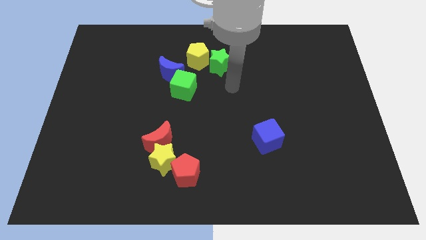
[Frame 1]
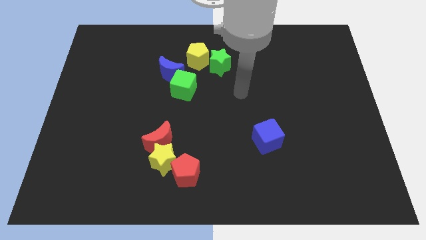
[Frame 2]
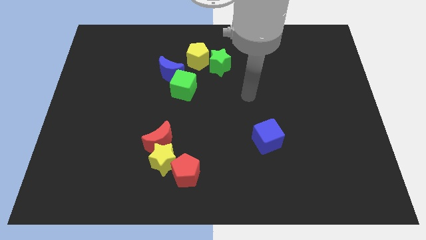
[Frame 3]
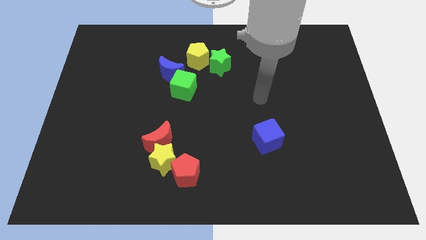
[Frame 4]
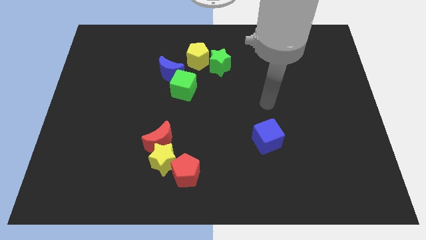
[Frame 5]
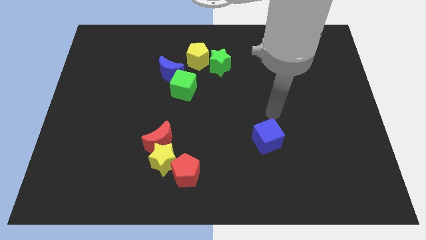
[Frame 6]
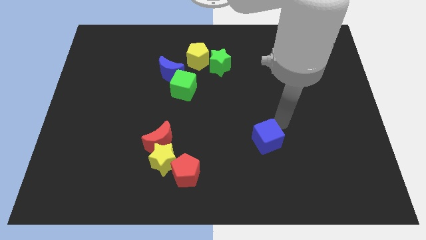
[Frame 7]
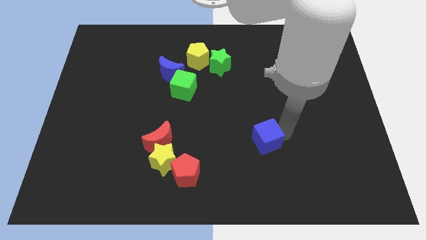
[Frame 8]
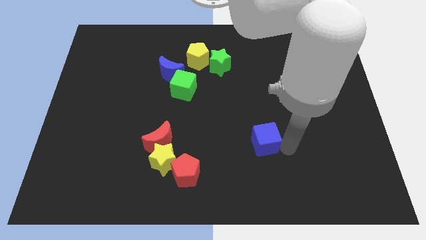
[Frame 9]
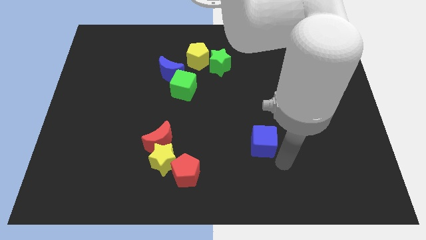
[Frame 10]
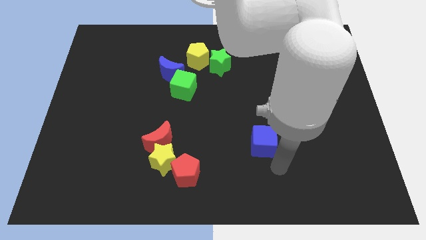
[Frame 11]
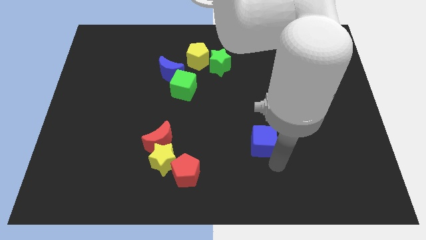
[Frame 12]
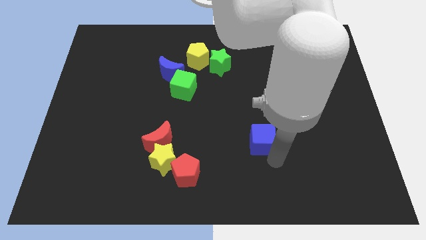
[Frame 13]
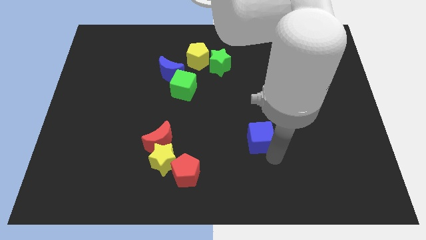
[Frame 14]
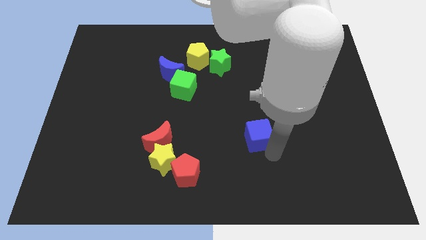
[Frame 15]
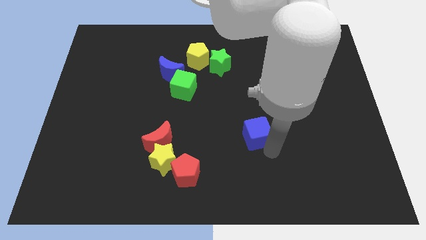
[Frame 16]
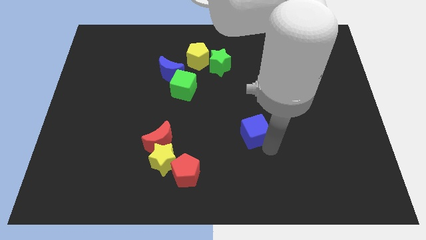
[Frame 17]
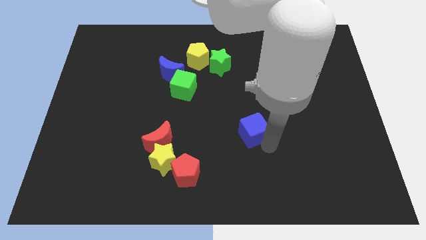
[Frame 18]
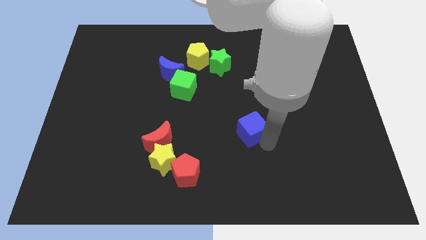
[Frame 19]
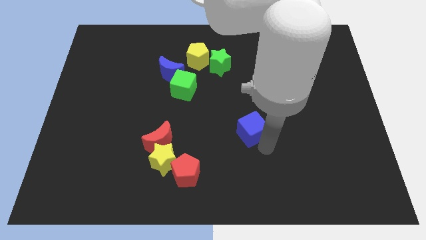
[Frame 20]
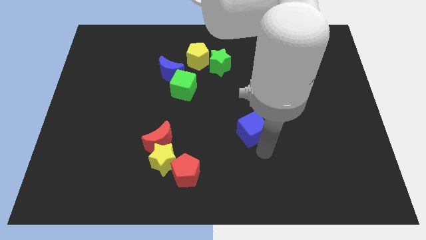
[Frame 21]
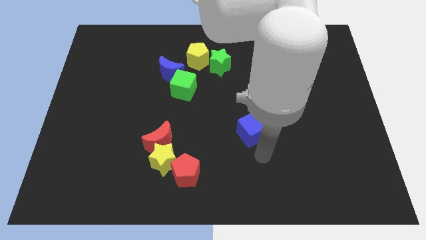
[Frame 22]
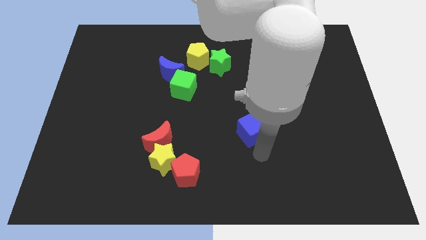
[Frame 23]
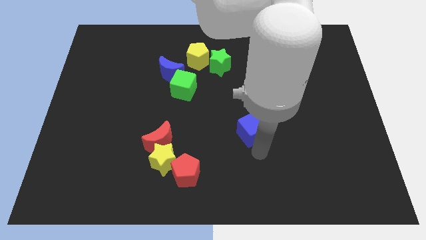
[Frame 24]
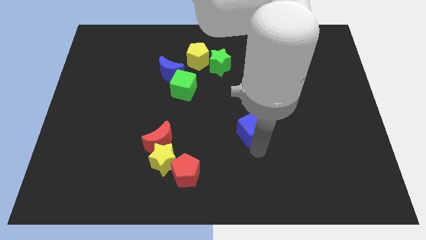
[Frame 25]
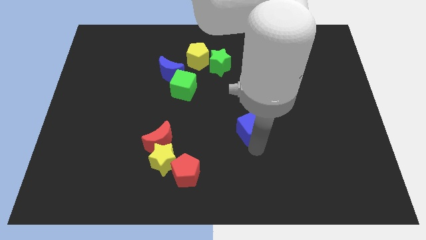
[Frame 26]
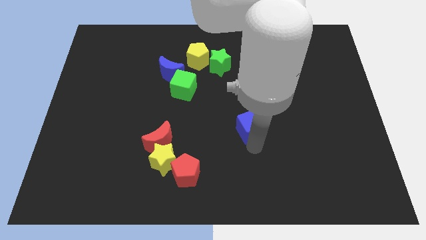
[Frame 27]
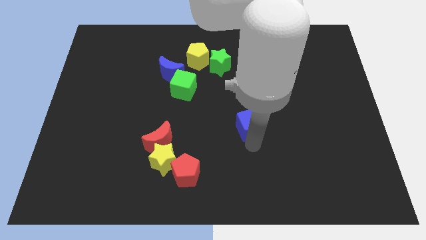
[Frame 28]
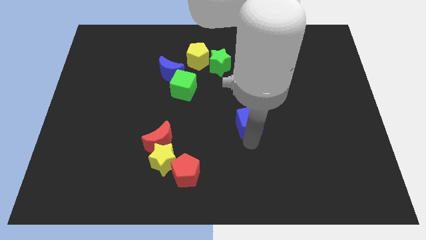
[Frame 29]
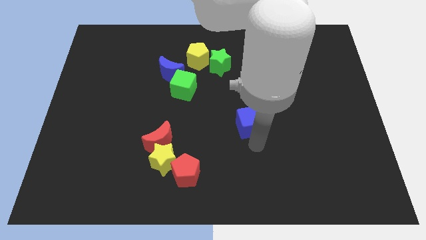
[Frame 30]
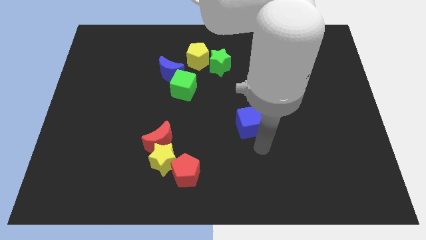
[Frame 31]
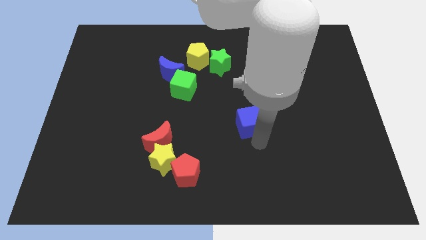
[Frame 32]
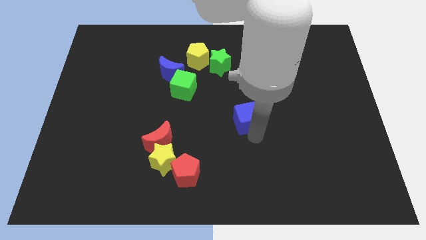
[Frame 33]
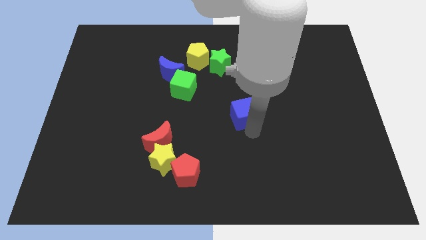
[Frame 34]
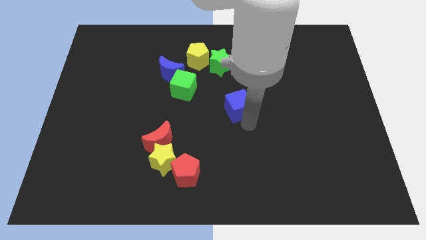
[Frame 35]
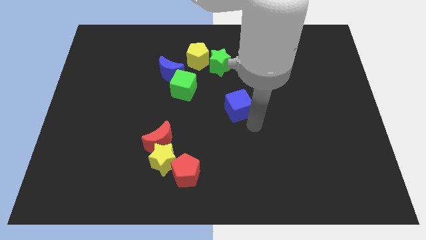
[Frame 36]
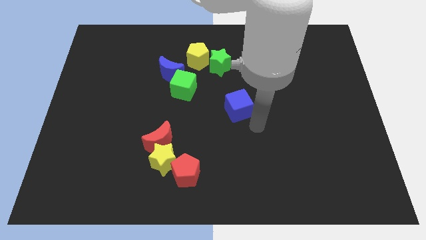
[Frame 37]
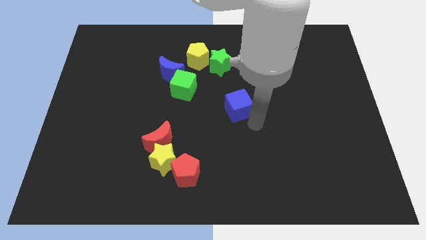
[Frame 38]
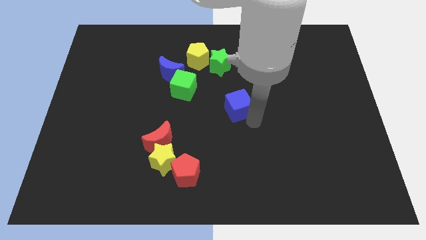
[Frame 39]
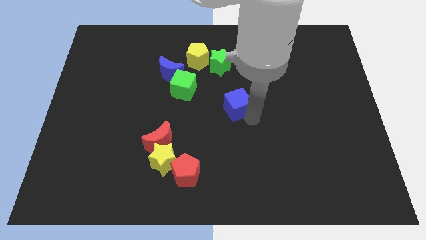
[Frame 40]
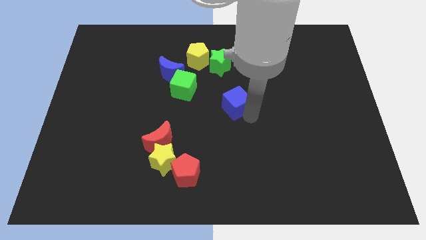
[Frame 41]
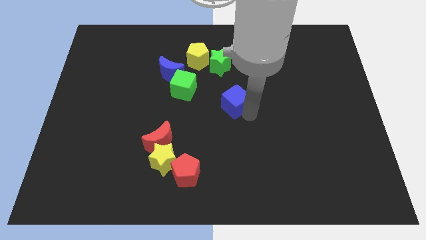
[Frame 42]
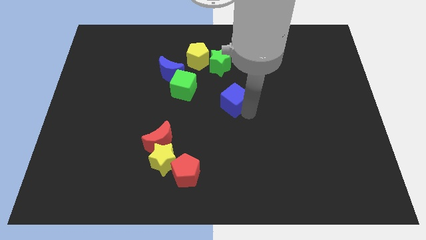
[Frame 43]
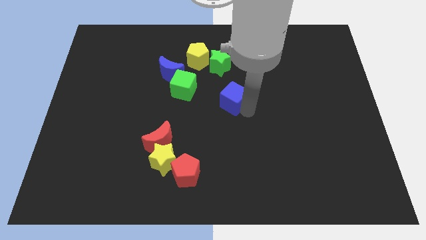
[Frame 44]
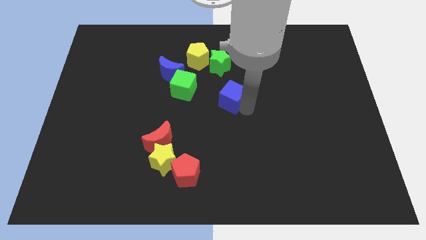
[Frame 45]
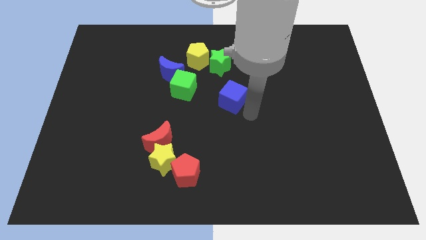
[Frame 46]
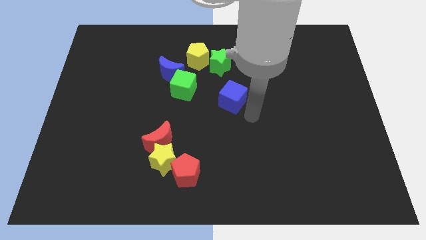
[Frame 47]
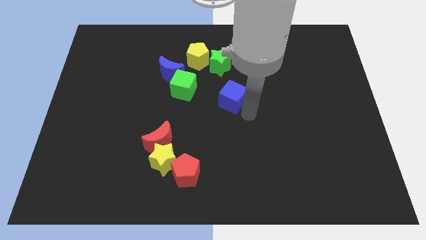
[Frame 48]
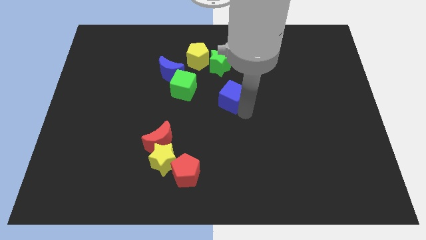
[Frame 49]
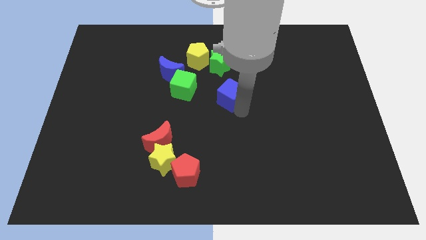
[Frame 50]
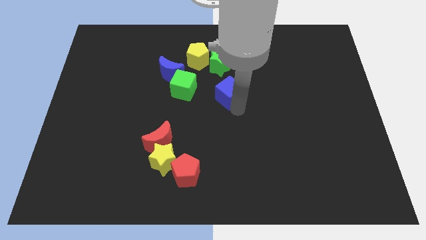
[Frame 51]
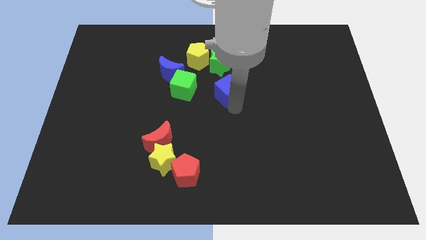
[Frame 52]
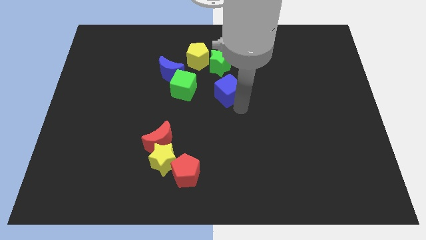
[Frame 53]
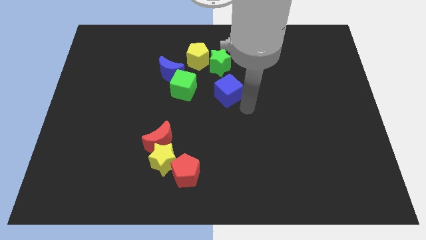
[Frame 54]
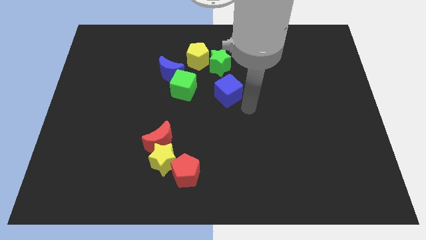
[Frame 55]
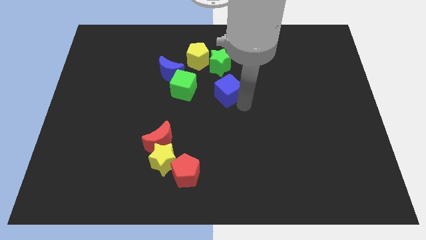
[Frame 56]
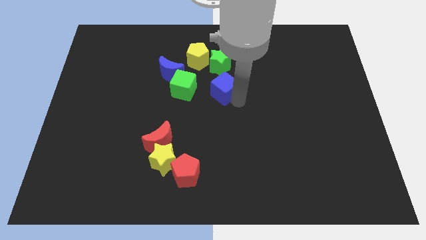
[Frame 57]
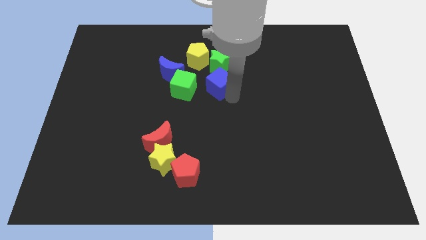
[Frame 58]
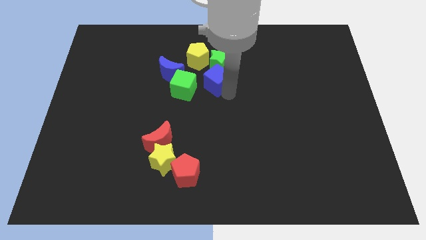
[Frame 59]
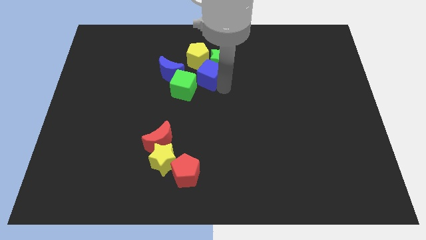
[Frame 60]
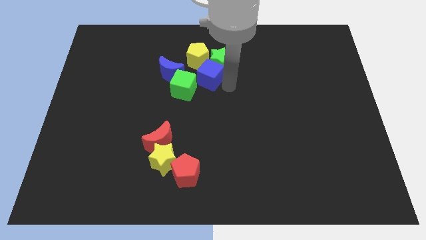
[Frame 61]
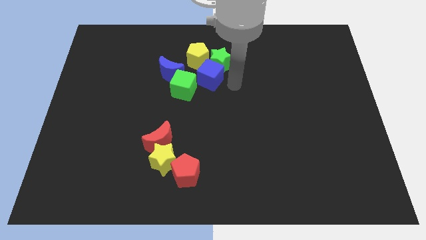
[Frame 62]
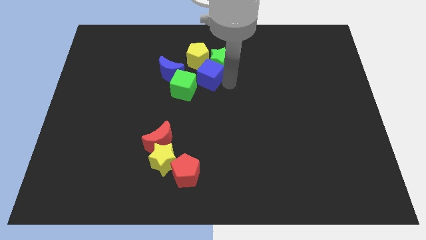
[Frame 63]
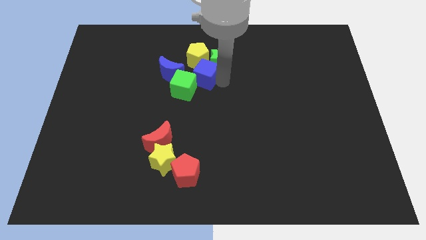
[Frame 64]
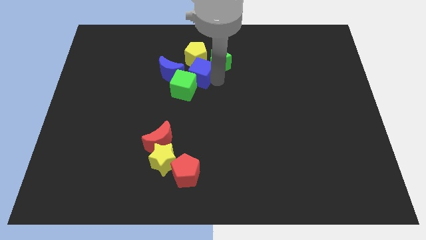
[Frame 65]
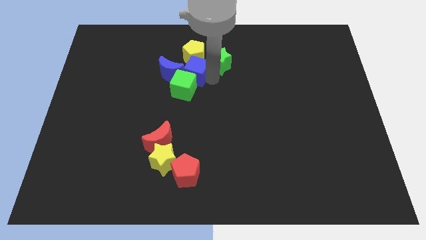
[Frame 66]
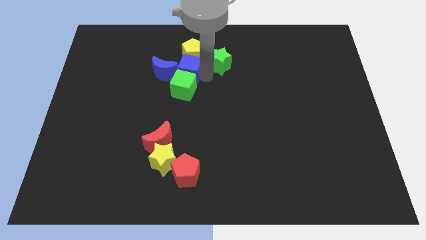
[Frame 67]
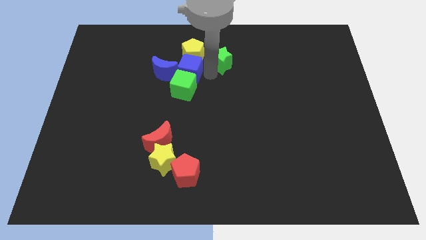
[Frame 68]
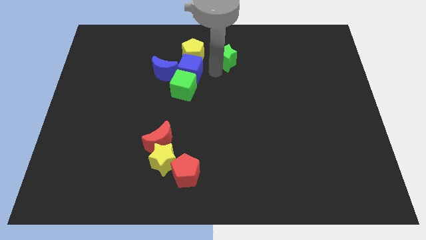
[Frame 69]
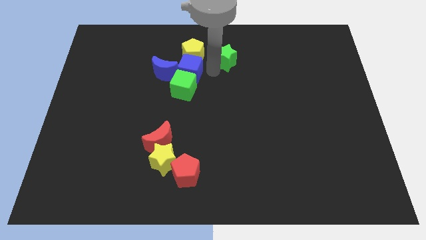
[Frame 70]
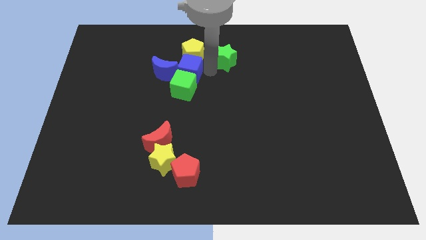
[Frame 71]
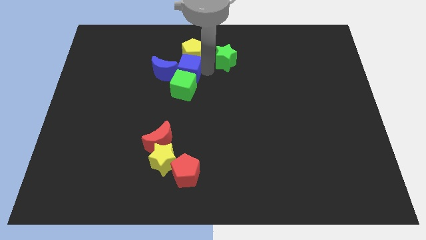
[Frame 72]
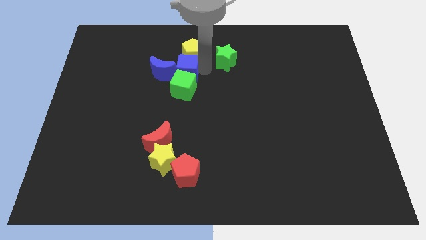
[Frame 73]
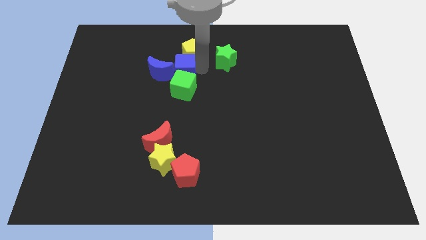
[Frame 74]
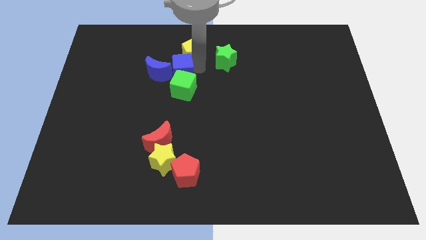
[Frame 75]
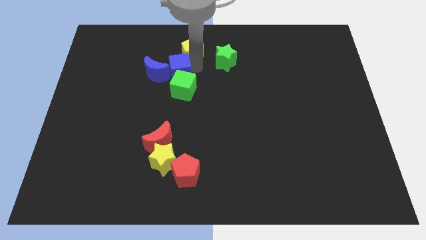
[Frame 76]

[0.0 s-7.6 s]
put the blue cube next to the blue moon
